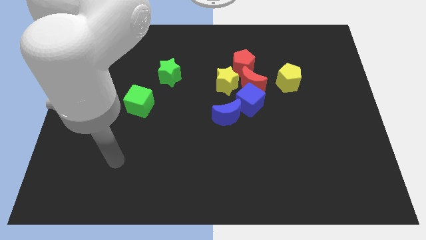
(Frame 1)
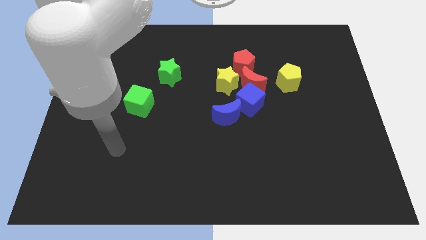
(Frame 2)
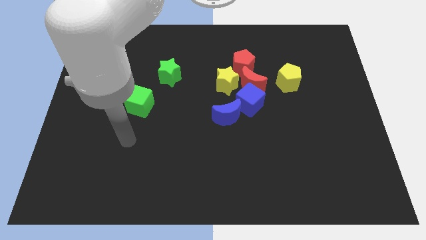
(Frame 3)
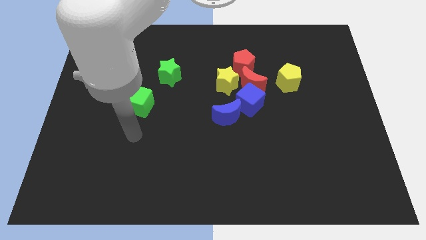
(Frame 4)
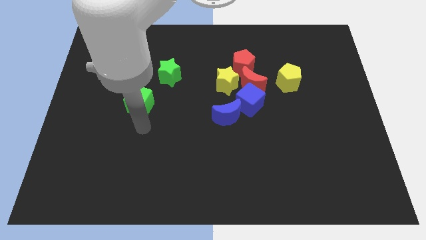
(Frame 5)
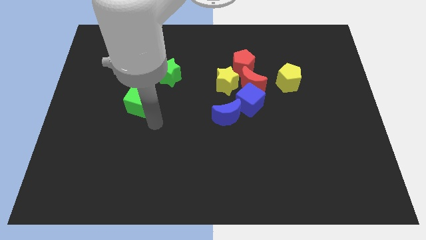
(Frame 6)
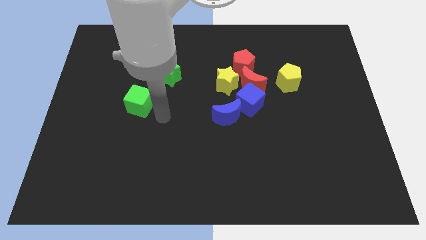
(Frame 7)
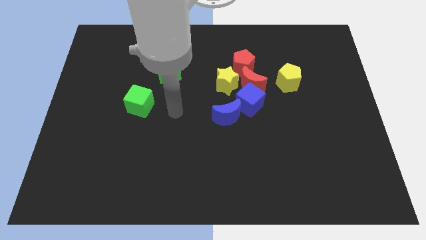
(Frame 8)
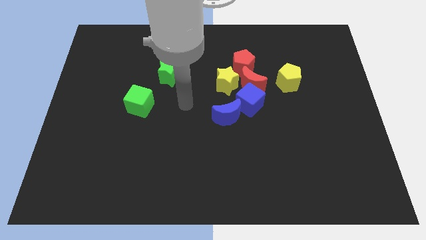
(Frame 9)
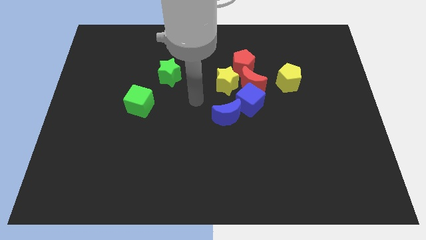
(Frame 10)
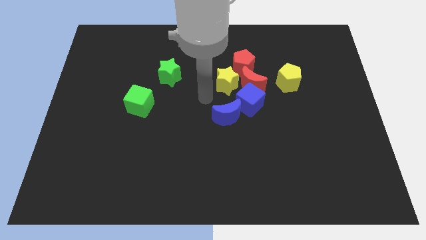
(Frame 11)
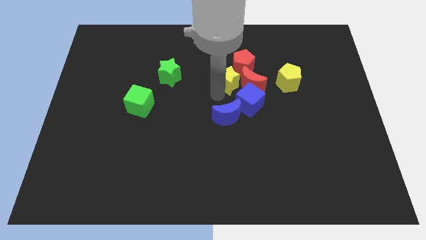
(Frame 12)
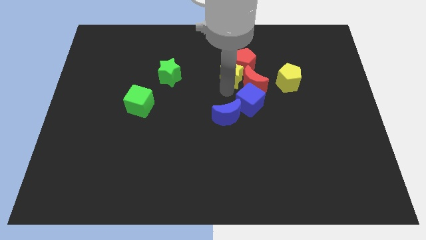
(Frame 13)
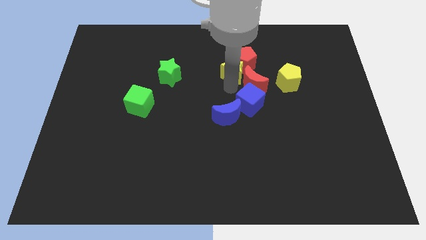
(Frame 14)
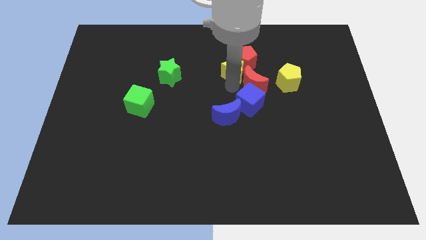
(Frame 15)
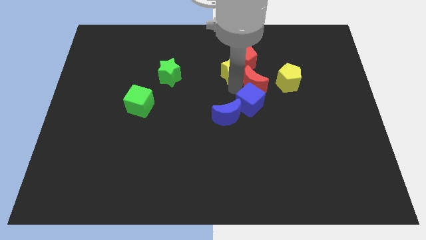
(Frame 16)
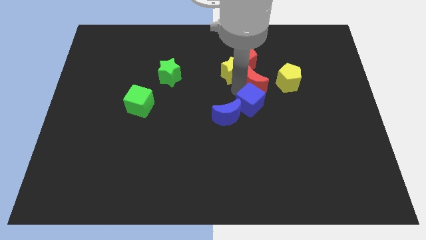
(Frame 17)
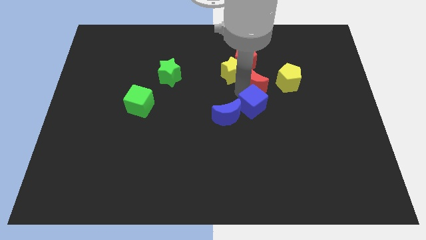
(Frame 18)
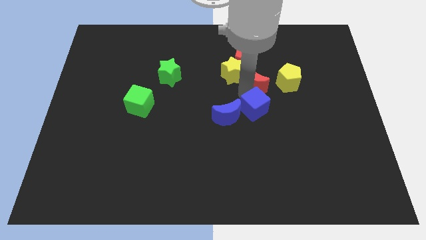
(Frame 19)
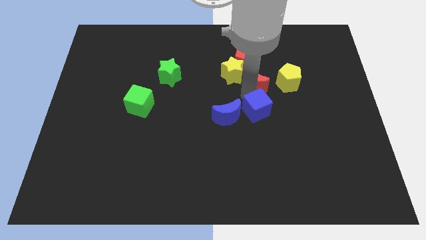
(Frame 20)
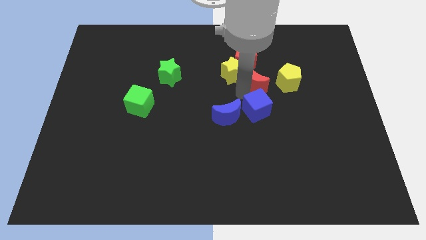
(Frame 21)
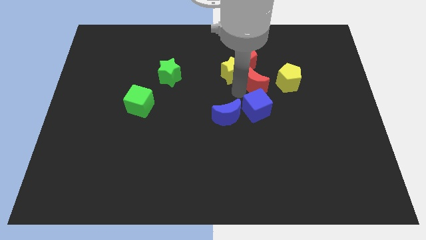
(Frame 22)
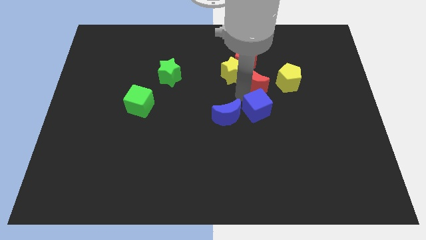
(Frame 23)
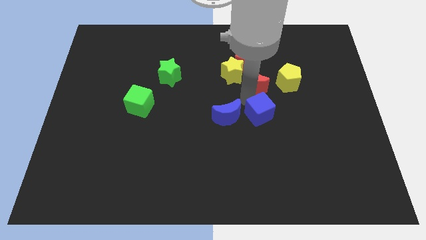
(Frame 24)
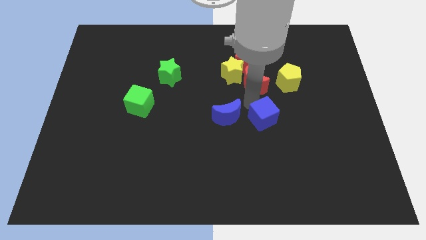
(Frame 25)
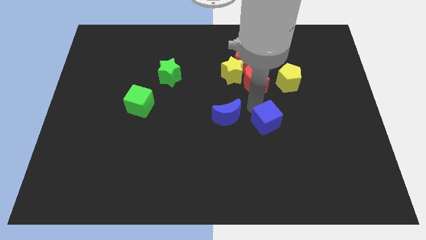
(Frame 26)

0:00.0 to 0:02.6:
separate the blue cube from the red moon, blue moon, and yellow star

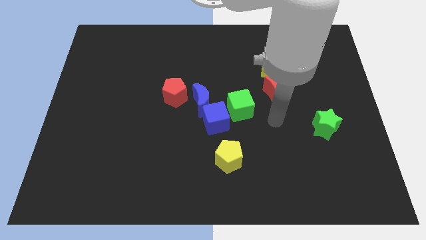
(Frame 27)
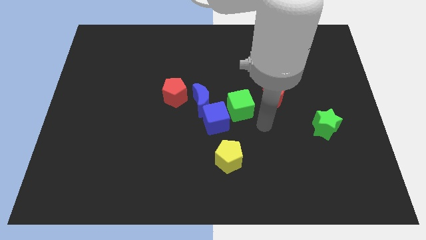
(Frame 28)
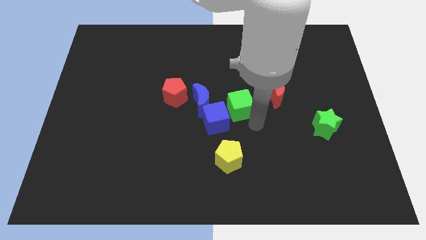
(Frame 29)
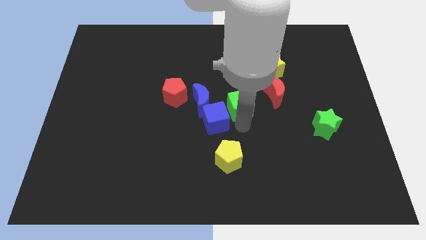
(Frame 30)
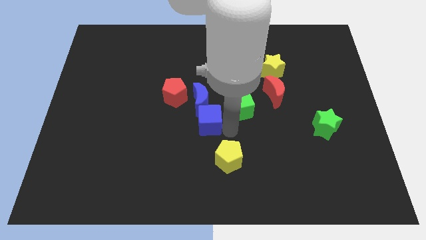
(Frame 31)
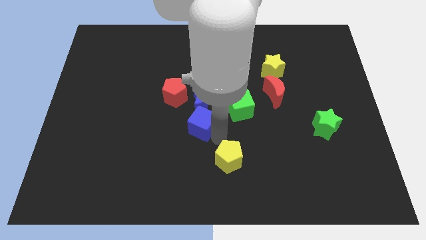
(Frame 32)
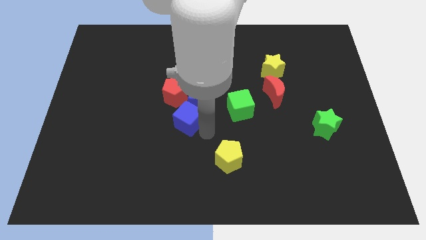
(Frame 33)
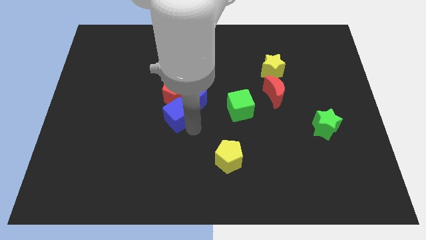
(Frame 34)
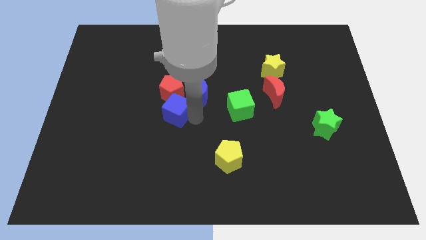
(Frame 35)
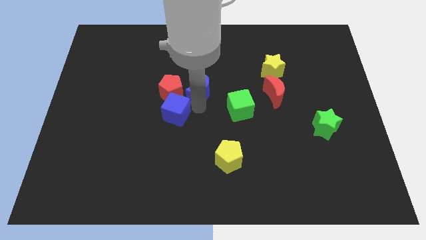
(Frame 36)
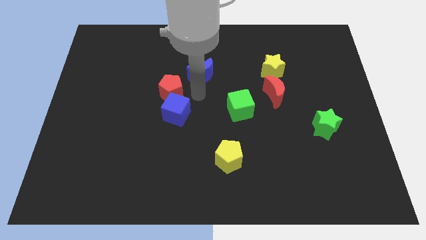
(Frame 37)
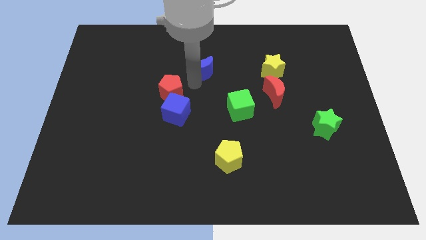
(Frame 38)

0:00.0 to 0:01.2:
separate the red pentagon from the blue moon

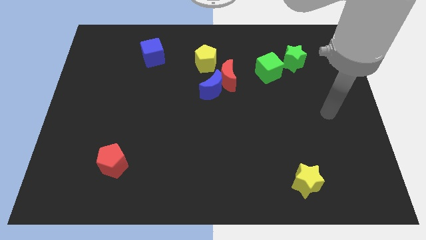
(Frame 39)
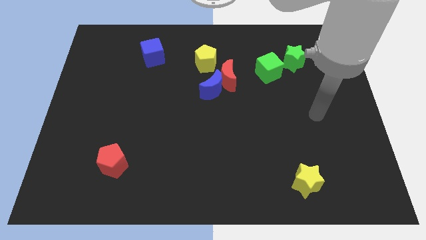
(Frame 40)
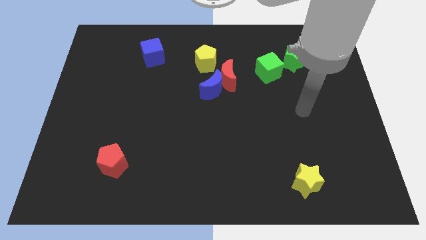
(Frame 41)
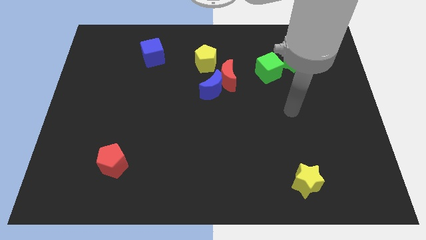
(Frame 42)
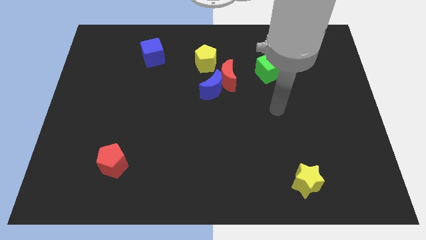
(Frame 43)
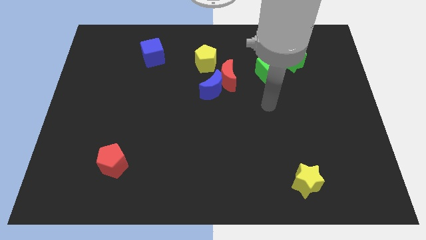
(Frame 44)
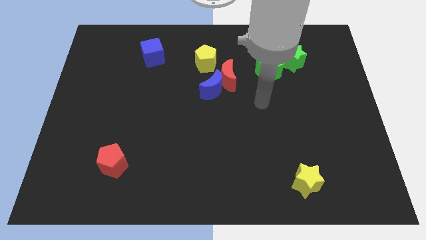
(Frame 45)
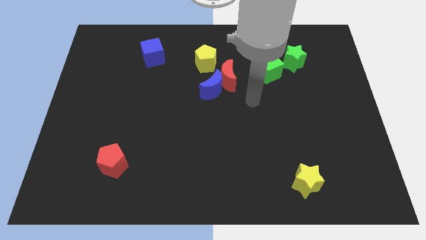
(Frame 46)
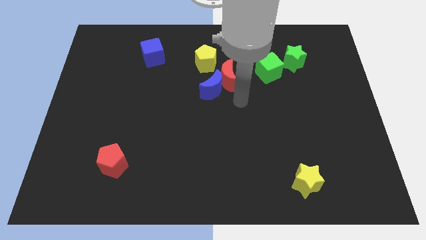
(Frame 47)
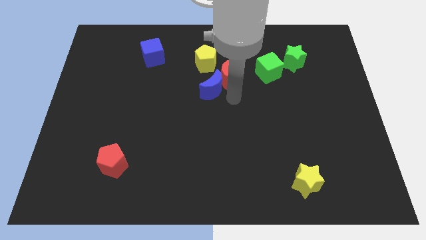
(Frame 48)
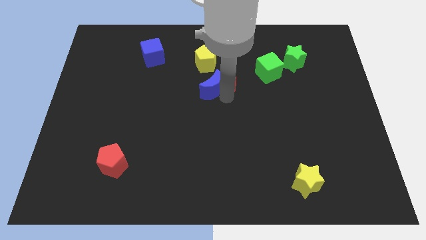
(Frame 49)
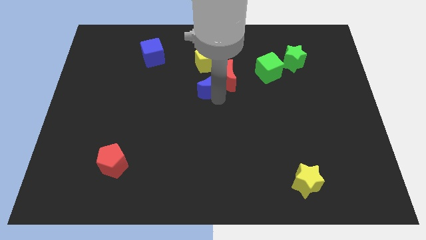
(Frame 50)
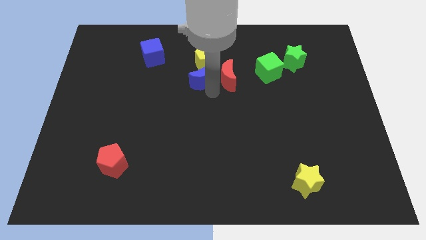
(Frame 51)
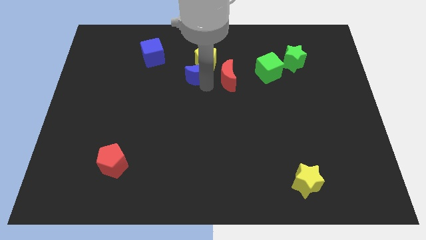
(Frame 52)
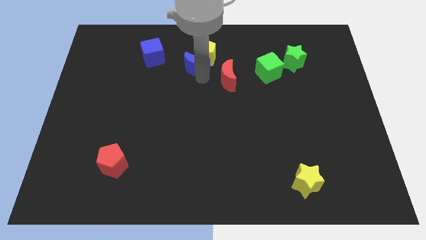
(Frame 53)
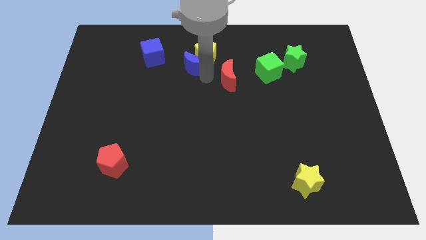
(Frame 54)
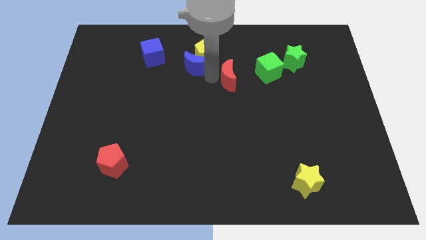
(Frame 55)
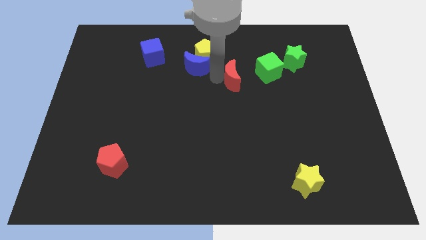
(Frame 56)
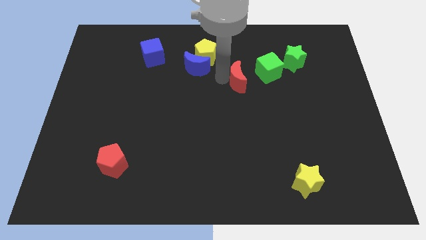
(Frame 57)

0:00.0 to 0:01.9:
separate the red moon from the blue moon and yellow pentagon

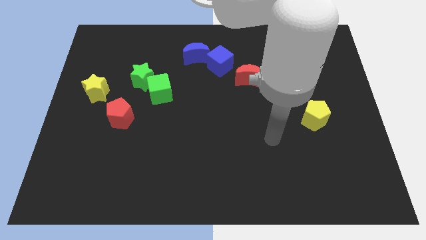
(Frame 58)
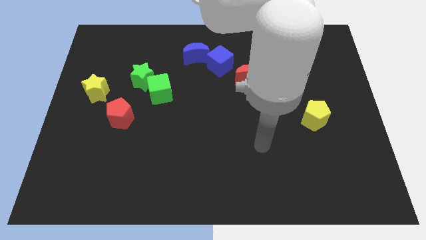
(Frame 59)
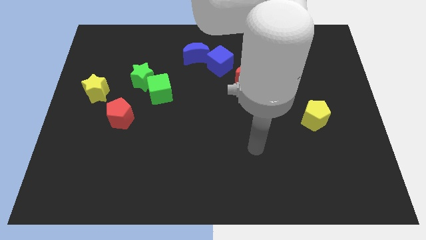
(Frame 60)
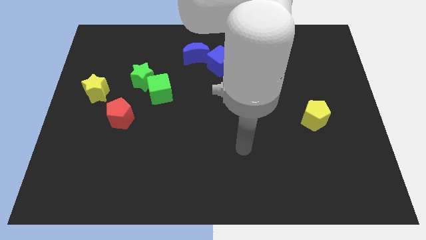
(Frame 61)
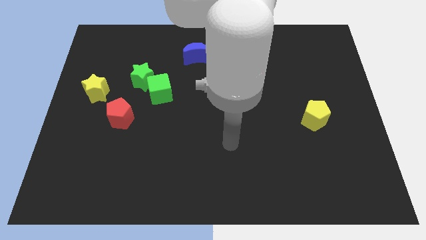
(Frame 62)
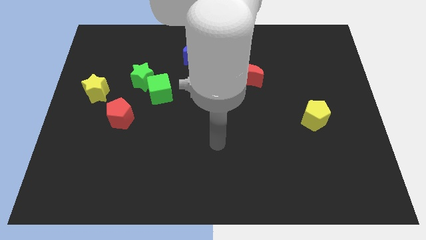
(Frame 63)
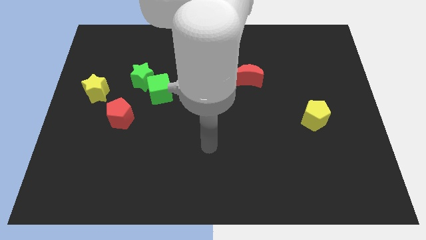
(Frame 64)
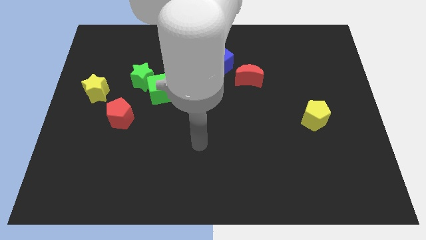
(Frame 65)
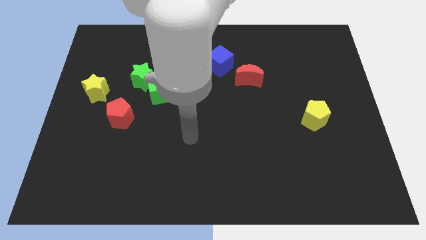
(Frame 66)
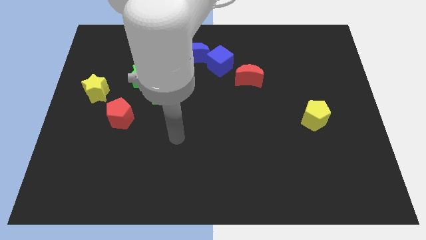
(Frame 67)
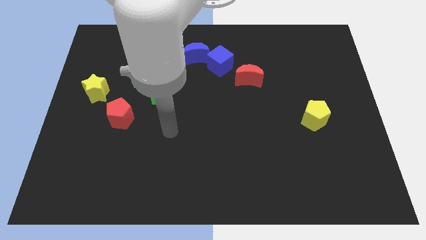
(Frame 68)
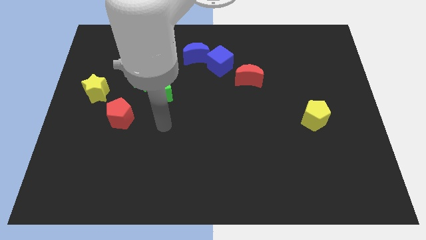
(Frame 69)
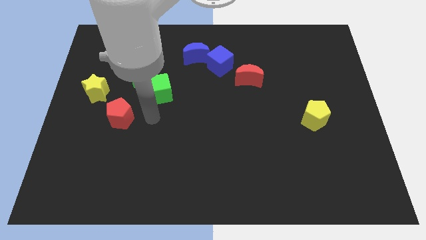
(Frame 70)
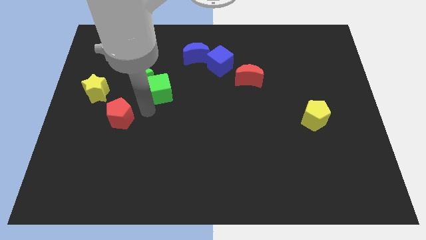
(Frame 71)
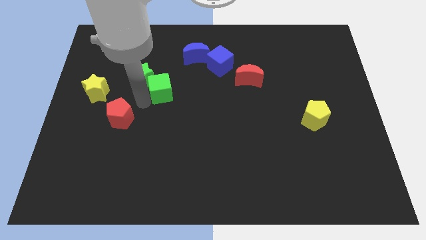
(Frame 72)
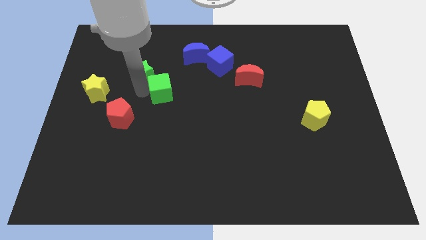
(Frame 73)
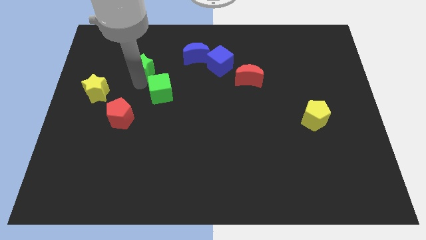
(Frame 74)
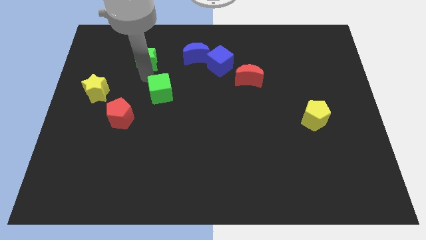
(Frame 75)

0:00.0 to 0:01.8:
separate the green cube from the green star

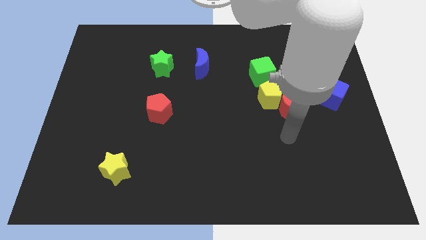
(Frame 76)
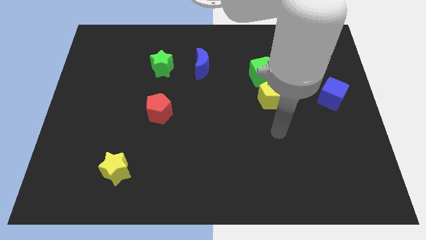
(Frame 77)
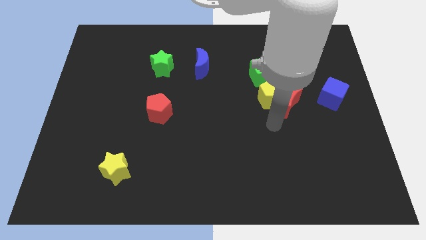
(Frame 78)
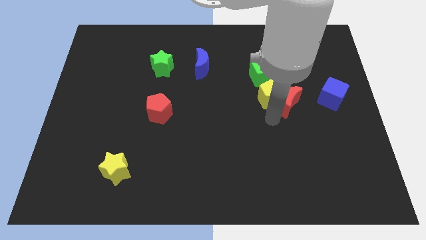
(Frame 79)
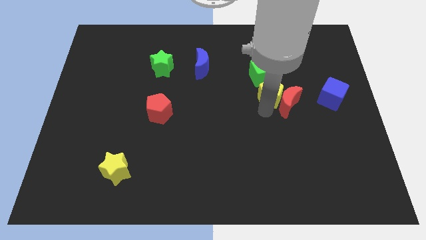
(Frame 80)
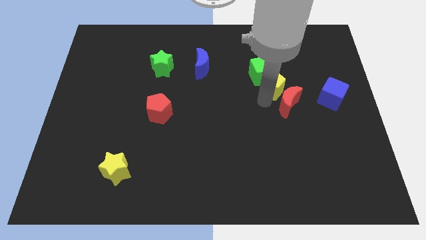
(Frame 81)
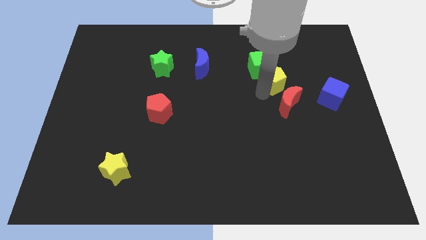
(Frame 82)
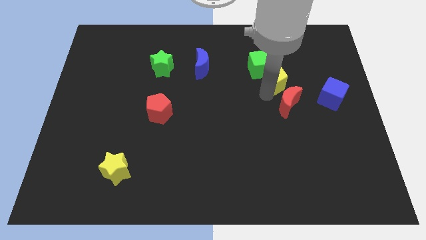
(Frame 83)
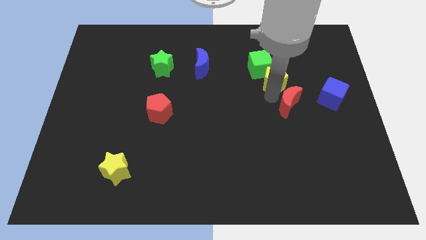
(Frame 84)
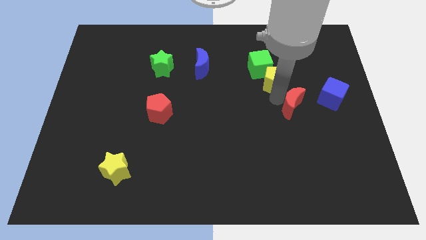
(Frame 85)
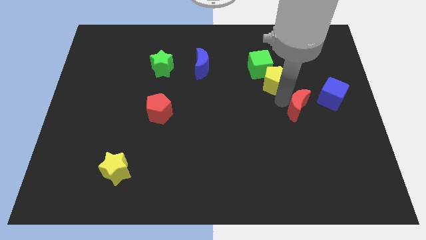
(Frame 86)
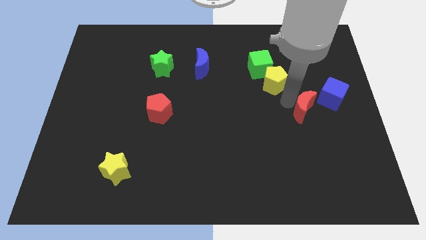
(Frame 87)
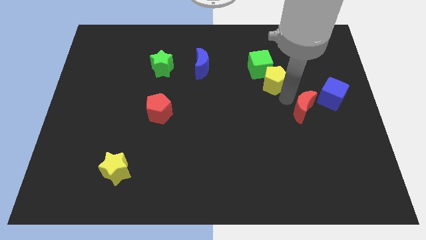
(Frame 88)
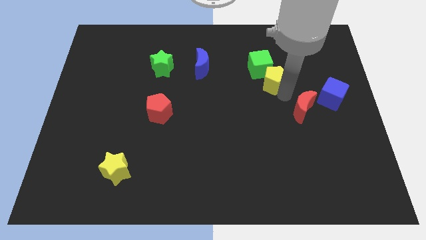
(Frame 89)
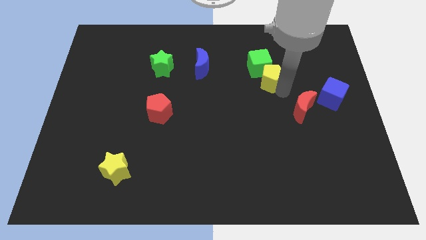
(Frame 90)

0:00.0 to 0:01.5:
pull the red moon apart from the yellow pentagon

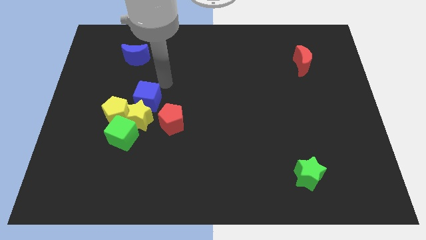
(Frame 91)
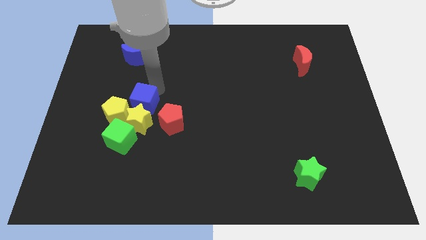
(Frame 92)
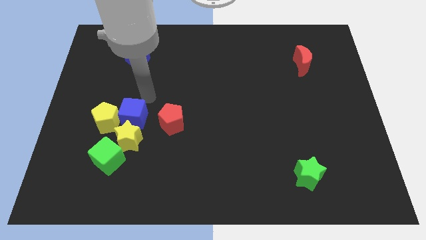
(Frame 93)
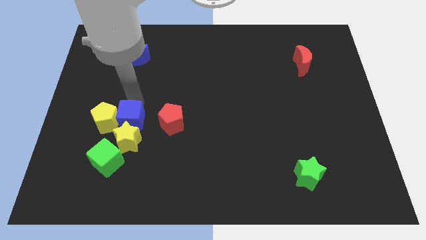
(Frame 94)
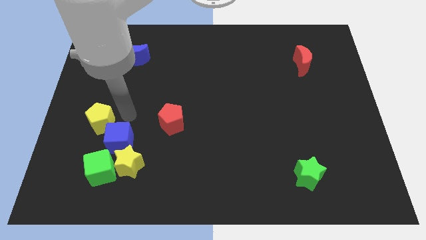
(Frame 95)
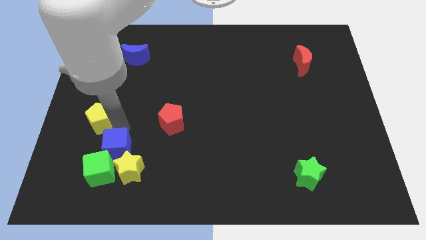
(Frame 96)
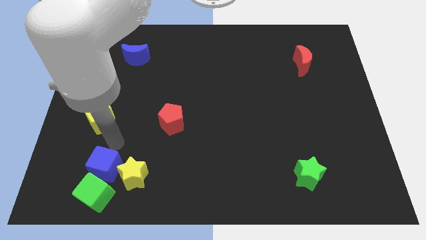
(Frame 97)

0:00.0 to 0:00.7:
move the green cube away from the yellow star and yellow pentagon
